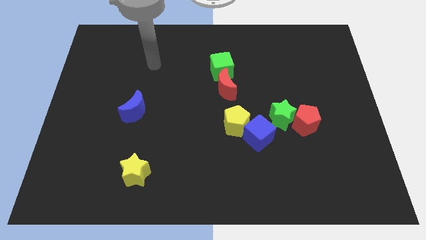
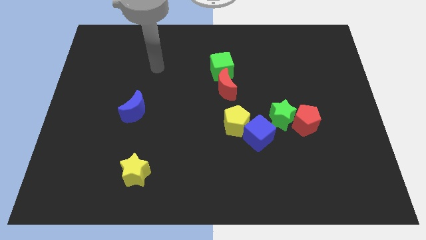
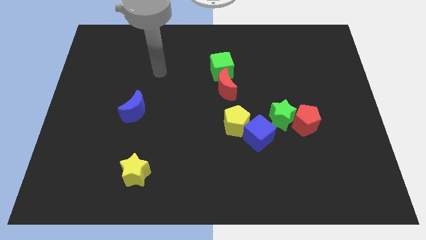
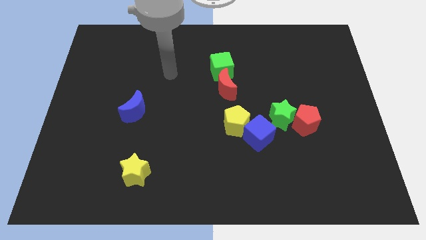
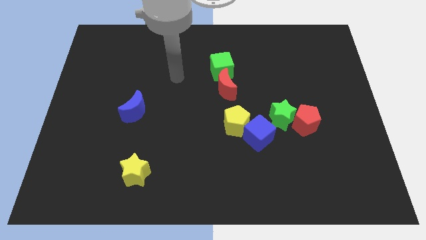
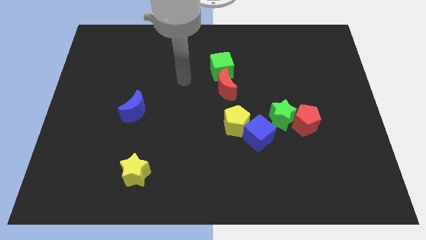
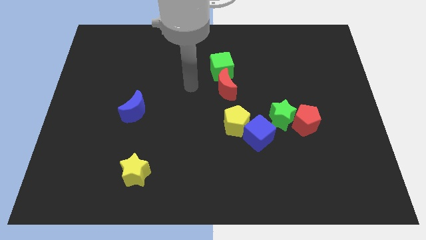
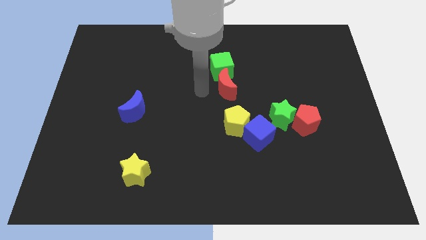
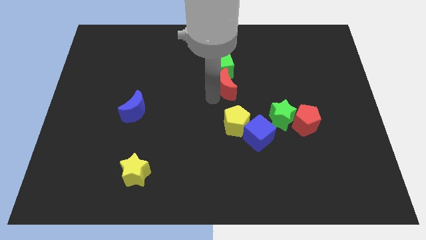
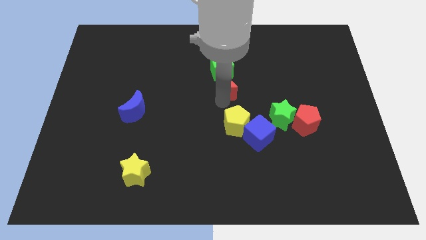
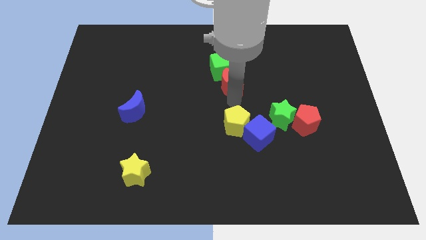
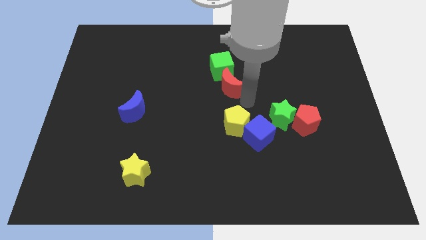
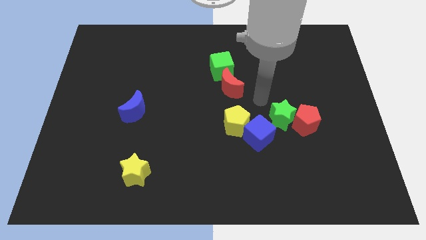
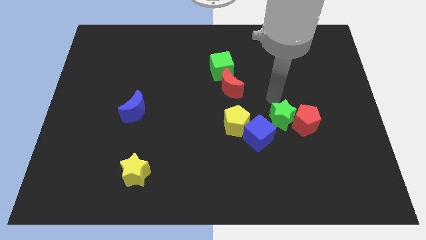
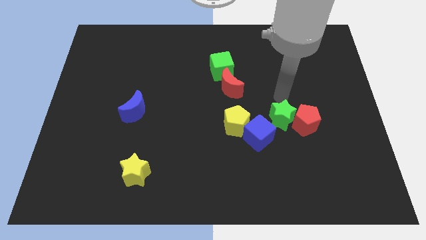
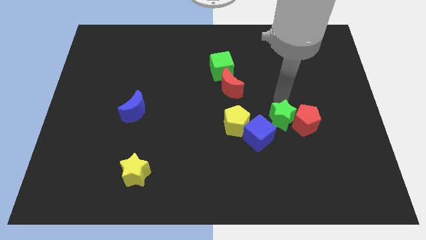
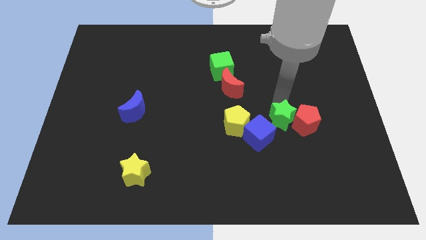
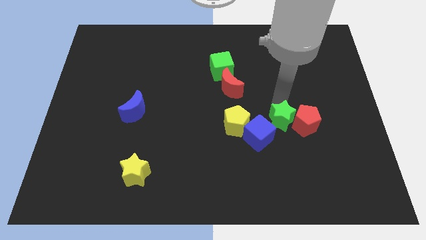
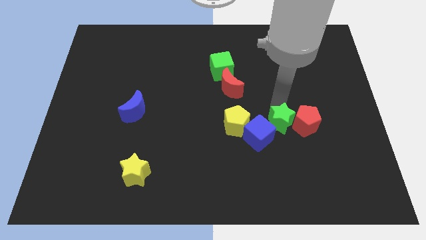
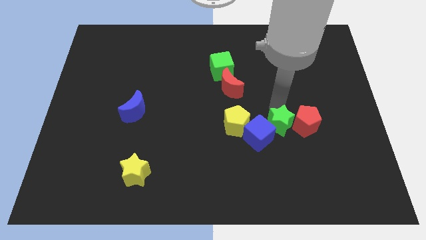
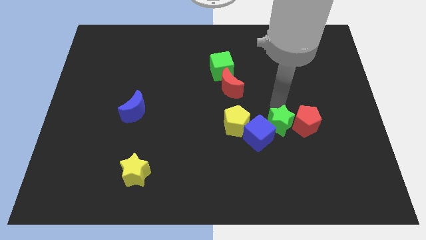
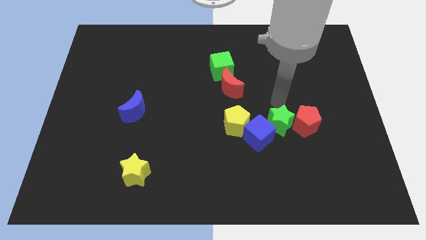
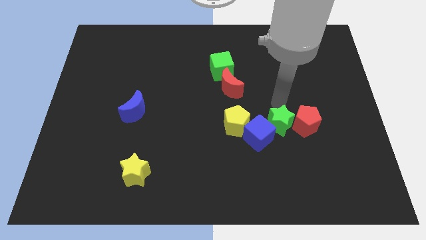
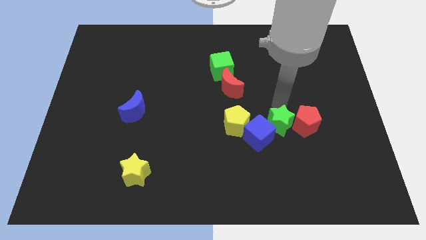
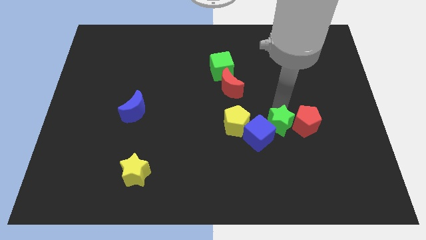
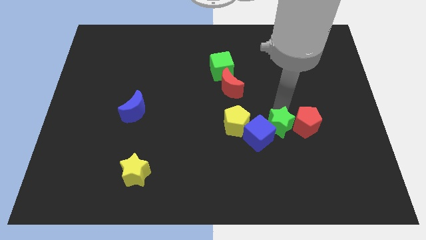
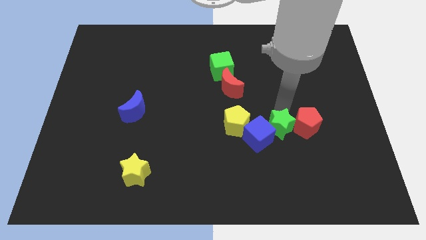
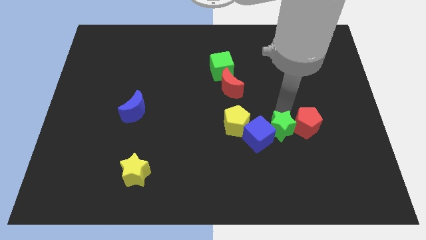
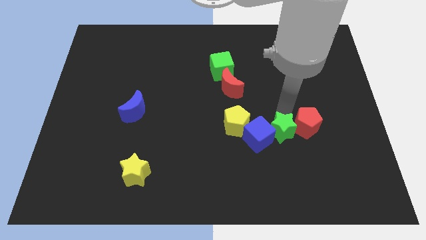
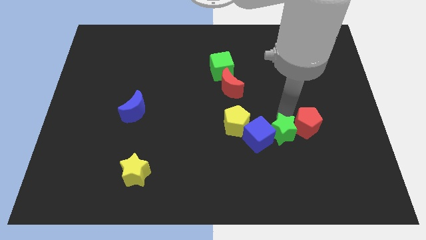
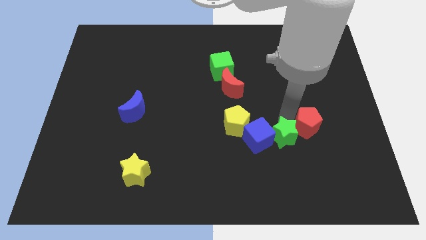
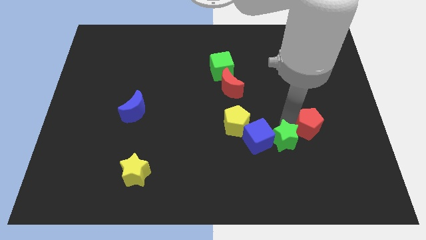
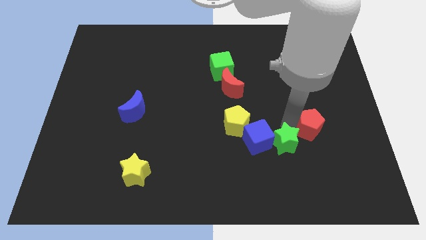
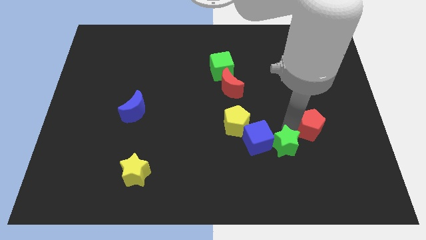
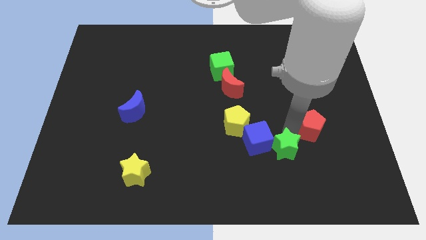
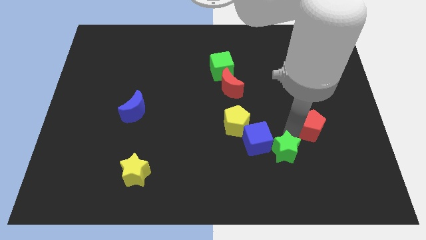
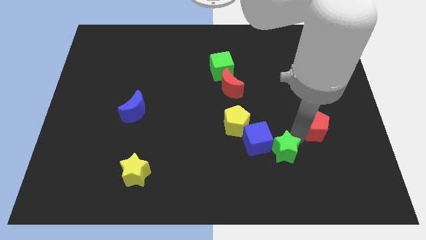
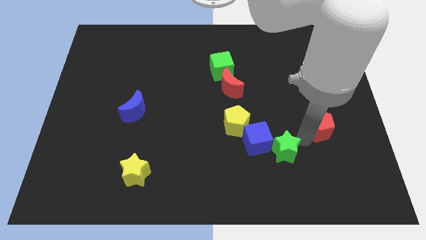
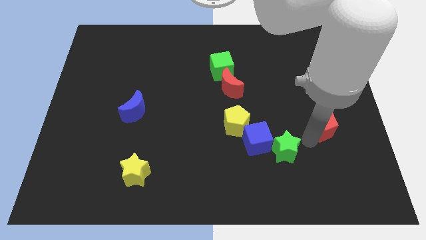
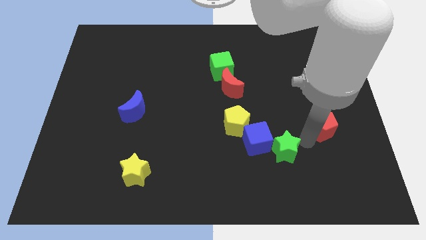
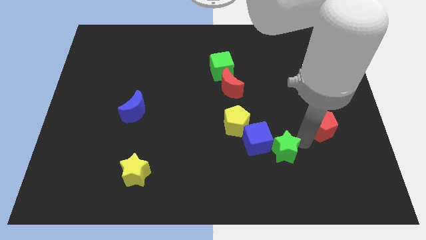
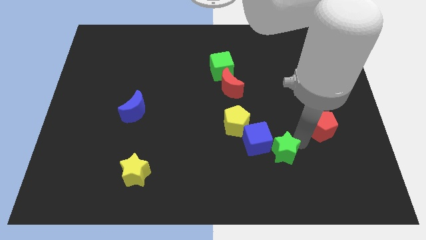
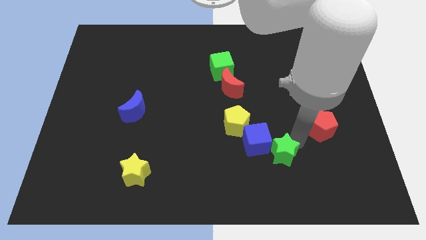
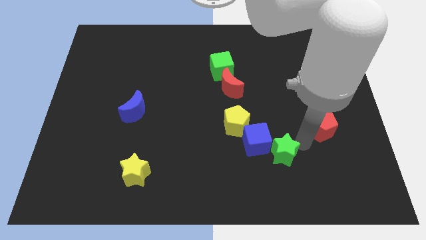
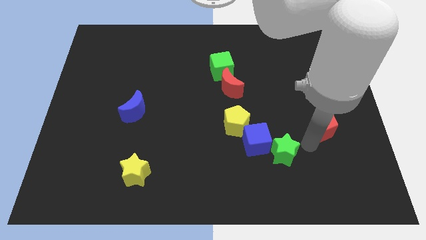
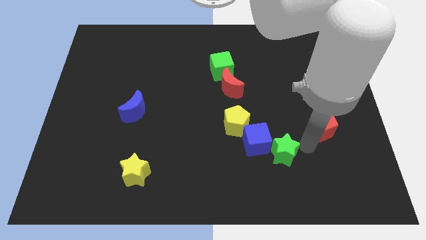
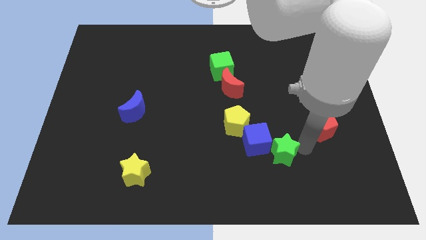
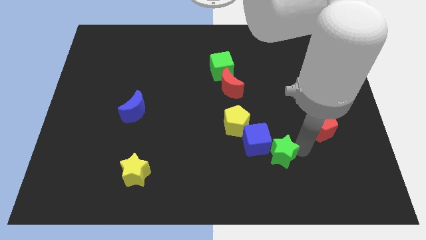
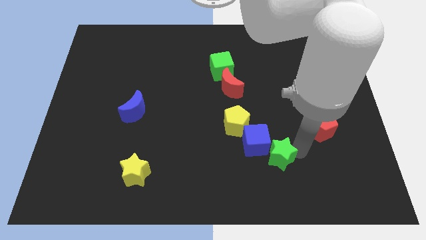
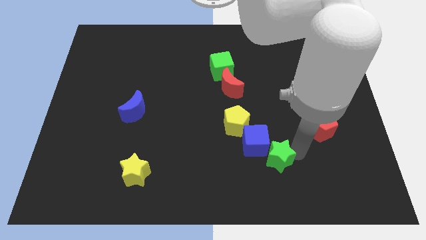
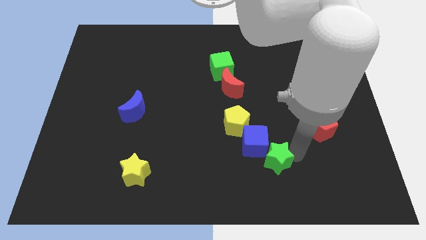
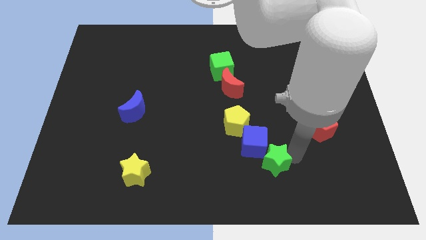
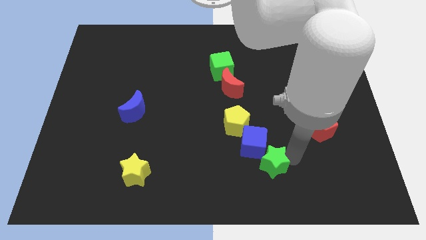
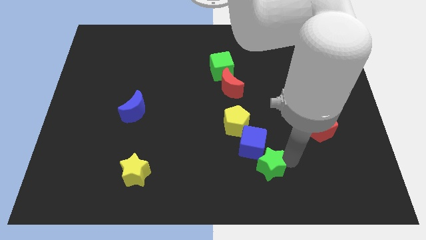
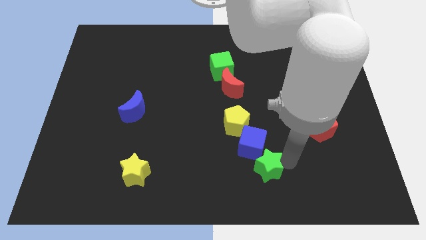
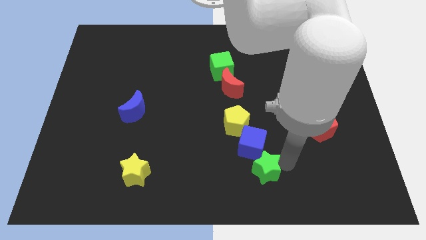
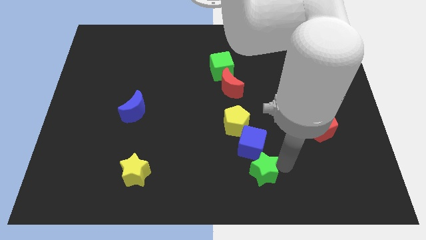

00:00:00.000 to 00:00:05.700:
move the green star to the bottom

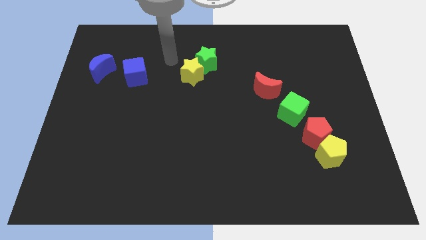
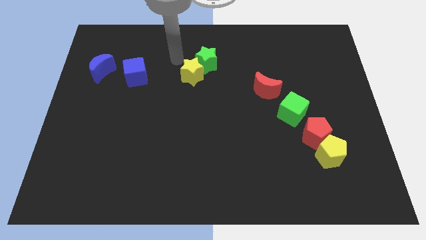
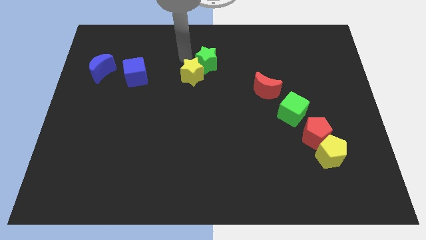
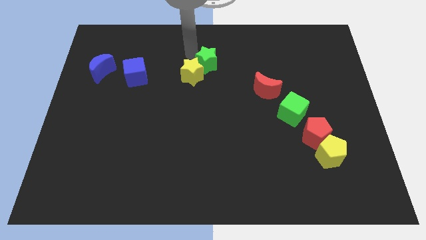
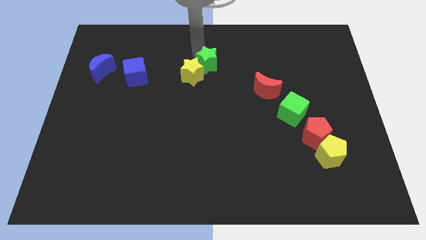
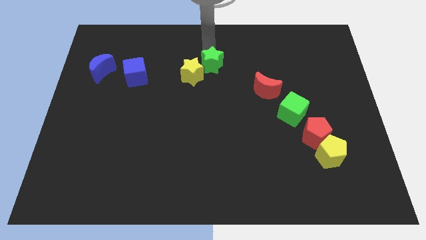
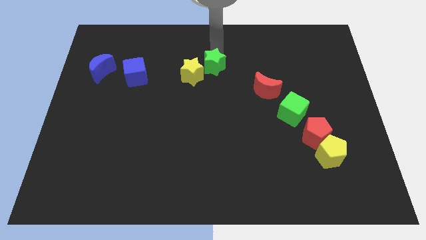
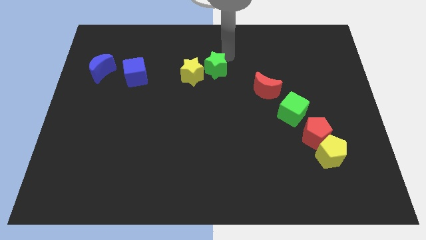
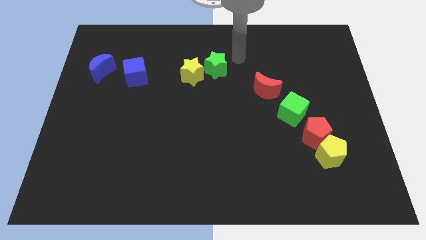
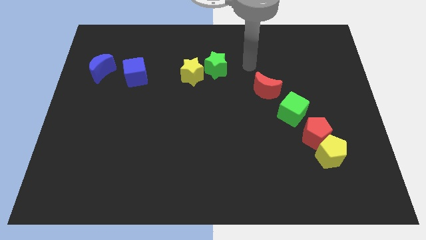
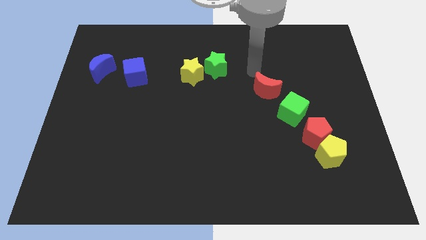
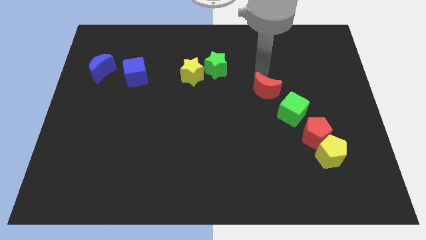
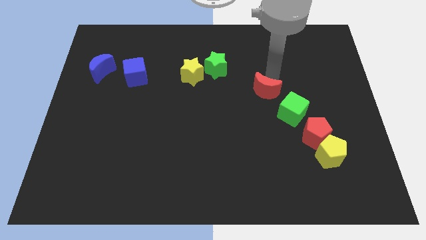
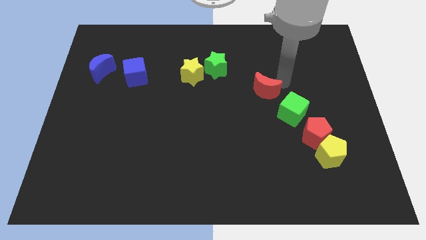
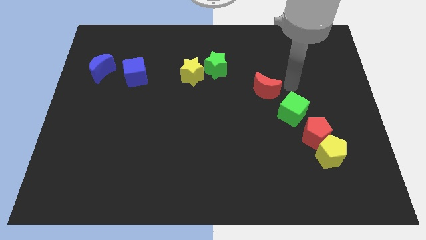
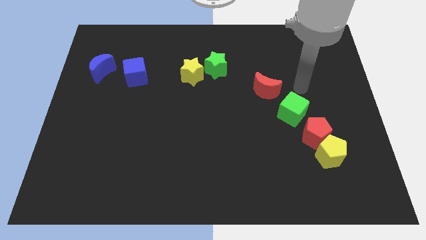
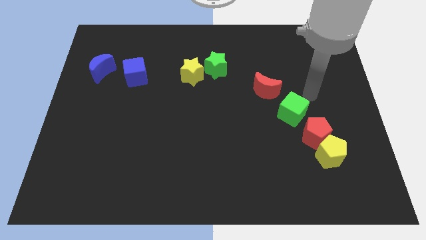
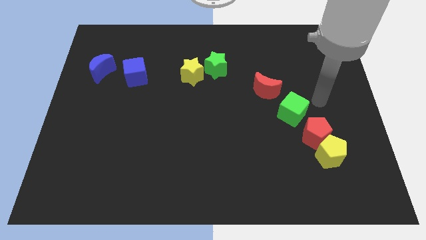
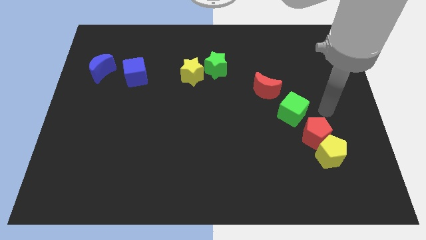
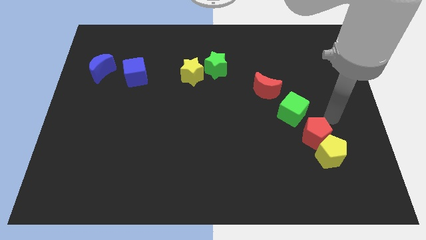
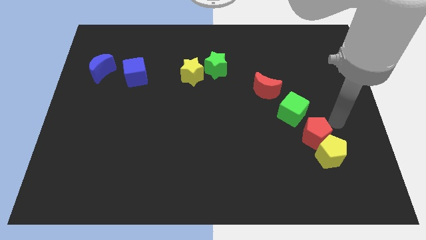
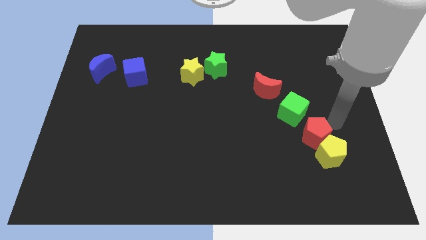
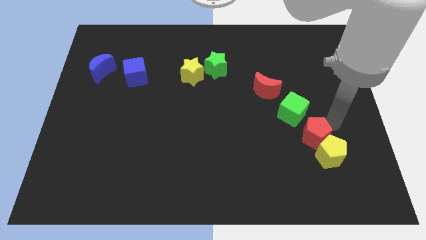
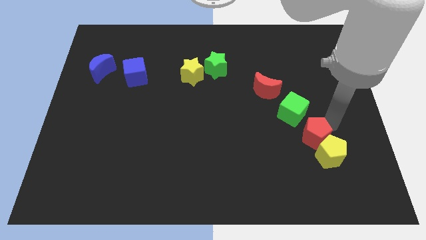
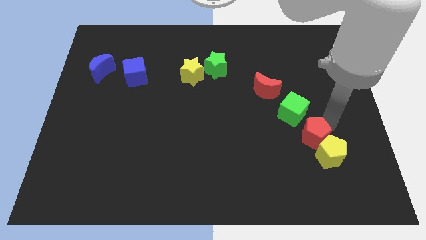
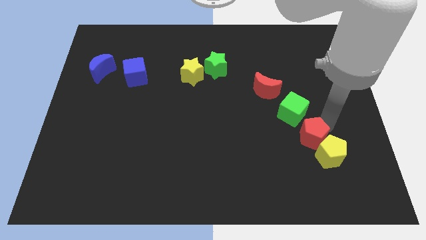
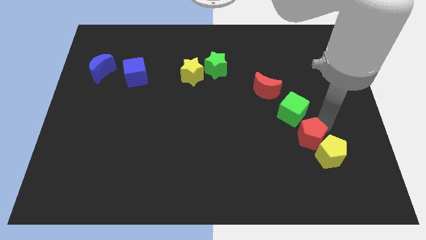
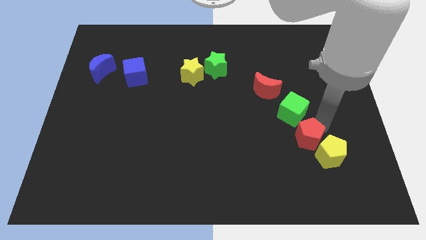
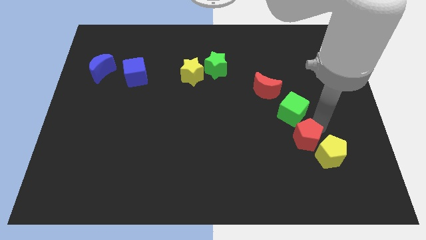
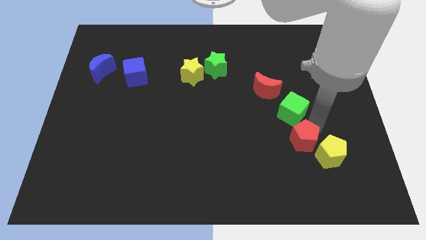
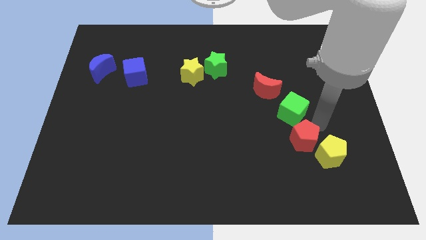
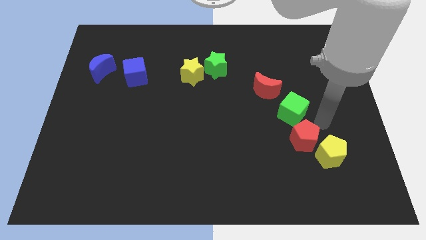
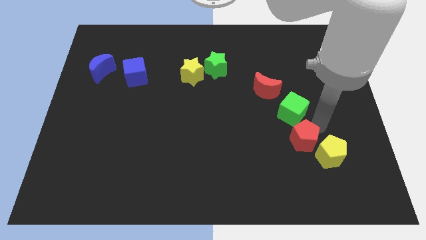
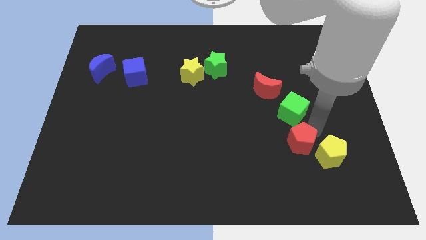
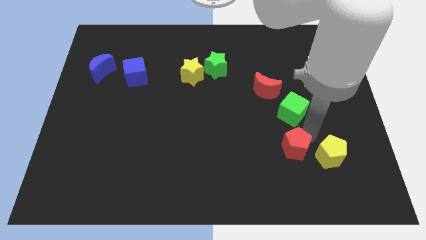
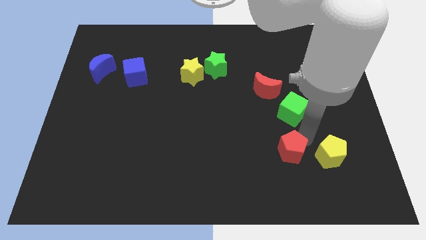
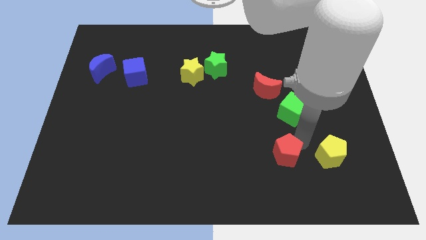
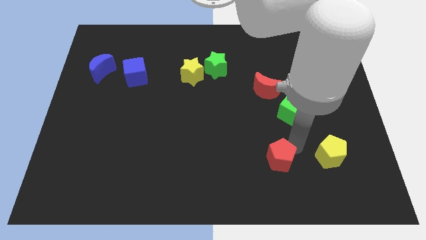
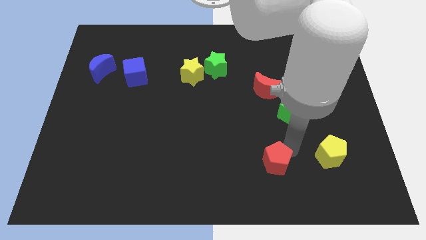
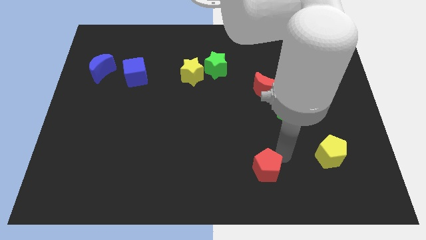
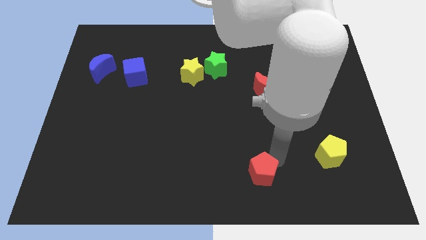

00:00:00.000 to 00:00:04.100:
put the red pentagon to the bottom side
